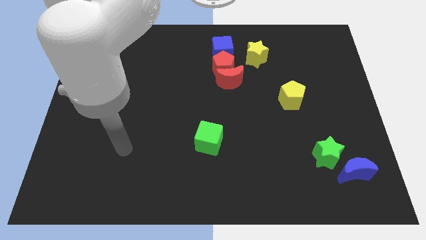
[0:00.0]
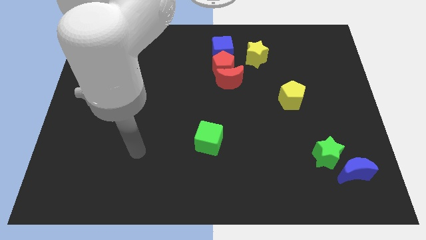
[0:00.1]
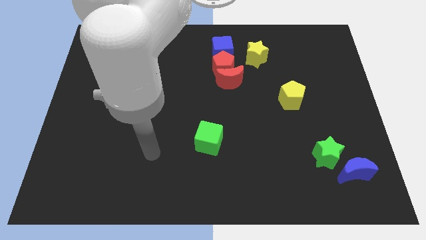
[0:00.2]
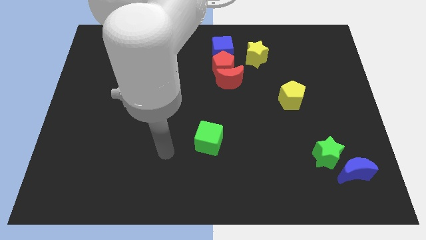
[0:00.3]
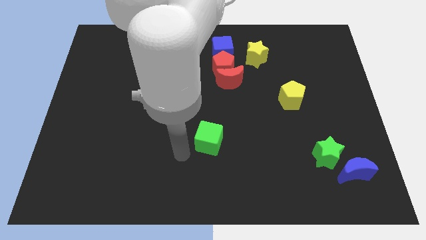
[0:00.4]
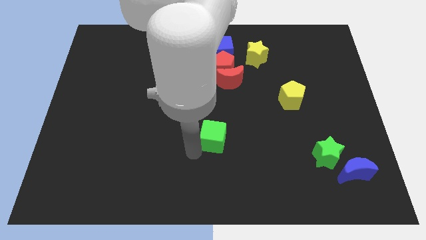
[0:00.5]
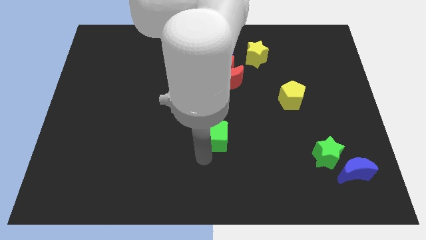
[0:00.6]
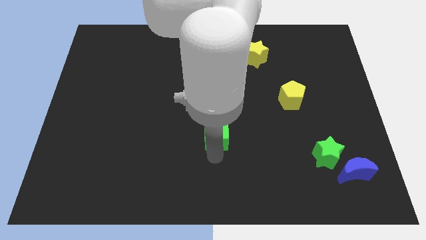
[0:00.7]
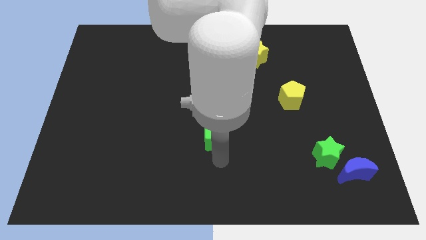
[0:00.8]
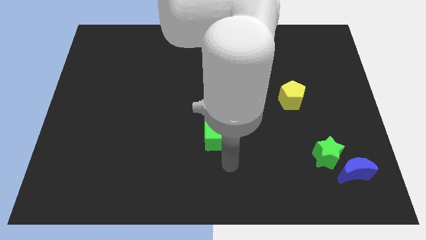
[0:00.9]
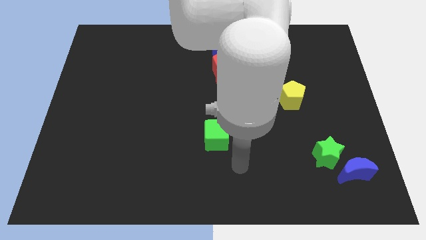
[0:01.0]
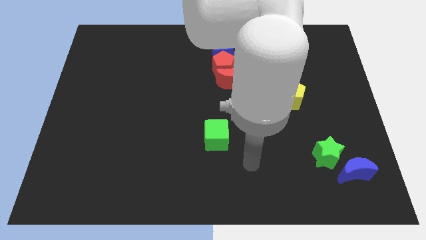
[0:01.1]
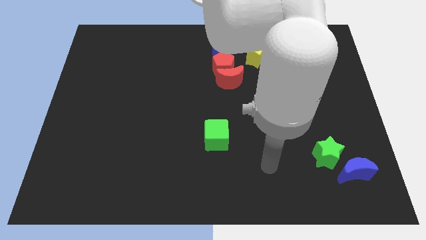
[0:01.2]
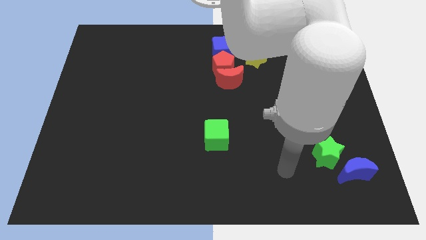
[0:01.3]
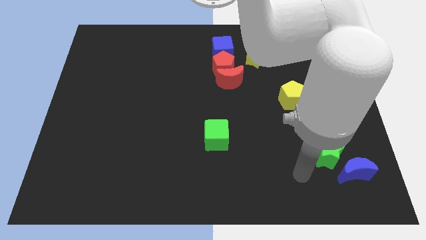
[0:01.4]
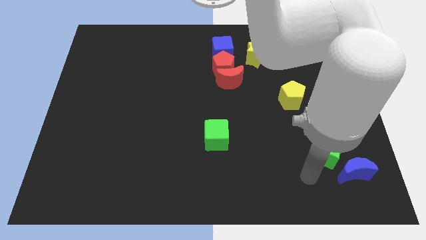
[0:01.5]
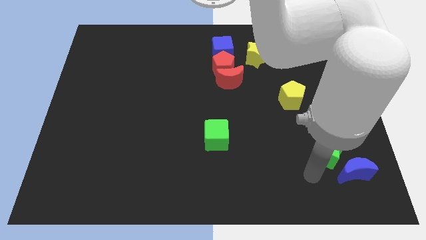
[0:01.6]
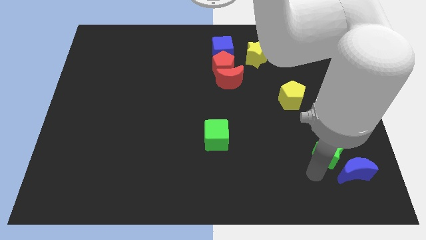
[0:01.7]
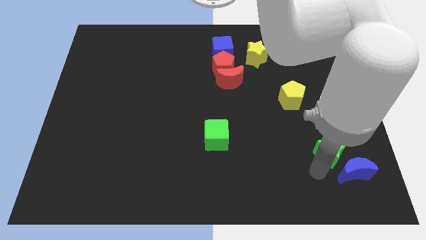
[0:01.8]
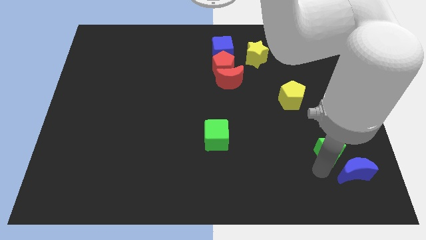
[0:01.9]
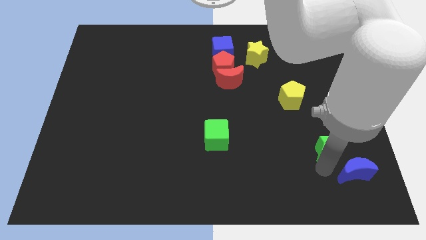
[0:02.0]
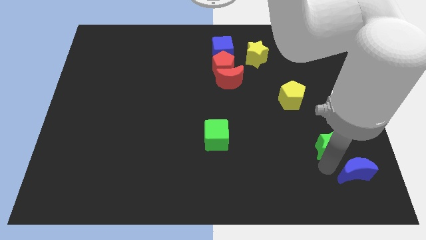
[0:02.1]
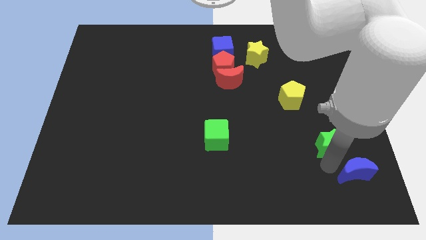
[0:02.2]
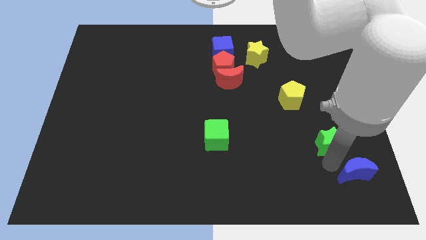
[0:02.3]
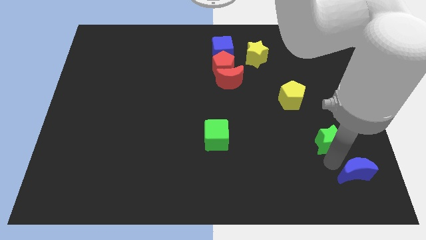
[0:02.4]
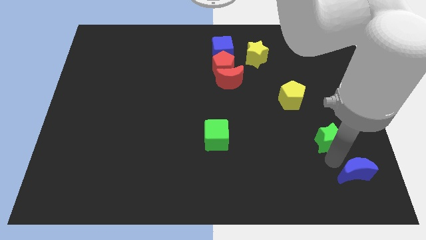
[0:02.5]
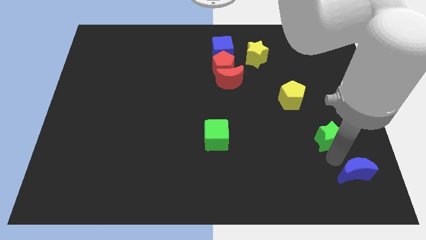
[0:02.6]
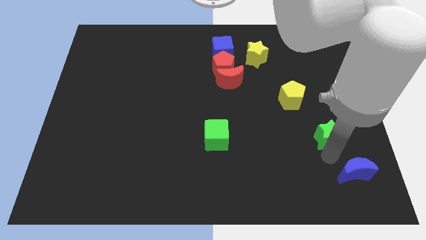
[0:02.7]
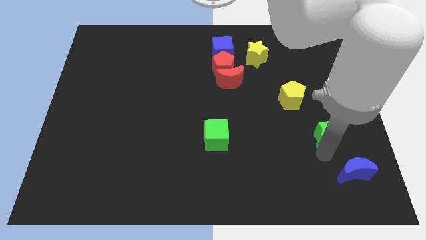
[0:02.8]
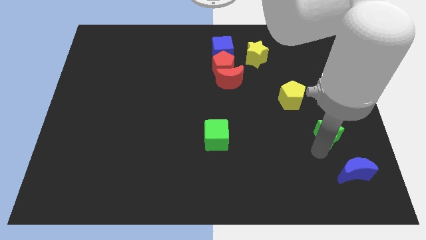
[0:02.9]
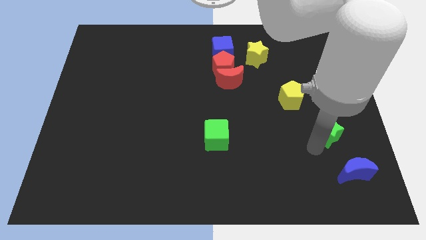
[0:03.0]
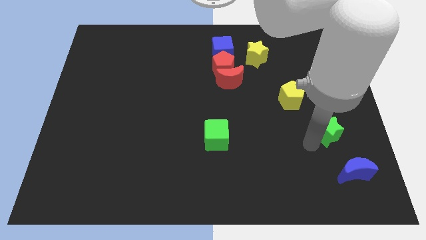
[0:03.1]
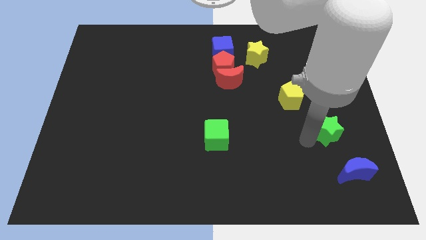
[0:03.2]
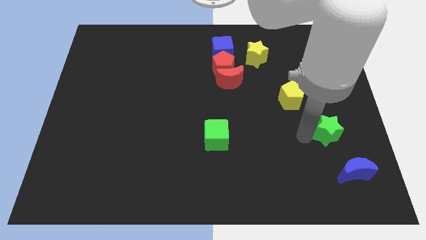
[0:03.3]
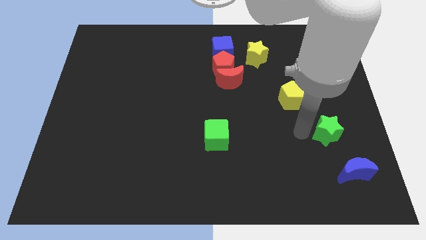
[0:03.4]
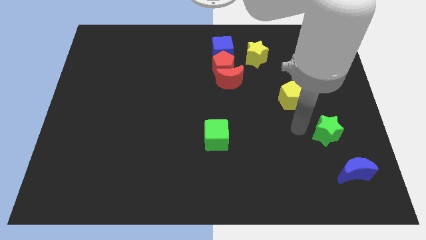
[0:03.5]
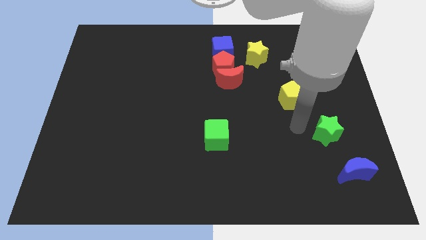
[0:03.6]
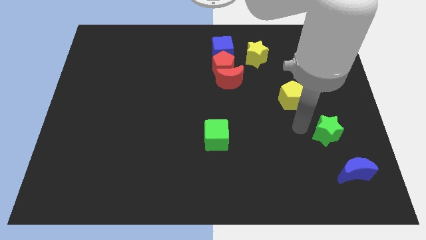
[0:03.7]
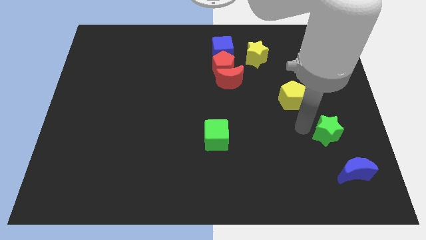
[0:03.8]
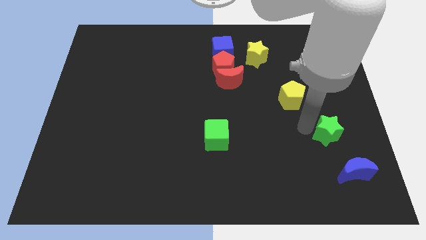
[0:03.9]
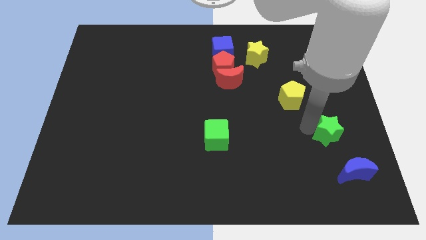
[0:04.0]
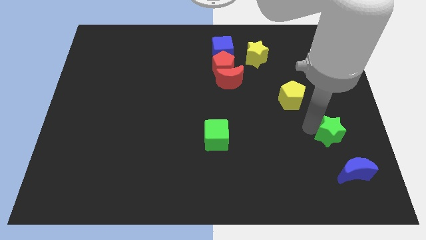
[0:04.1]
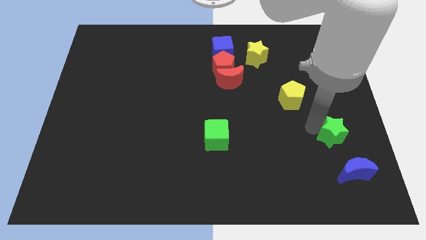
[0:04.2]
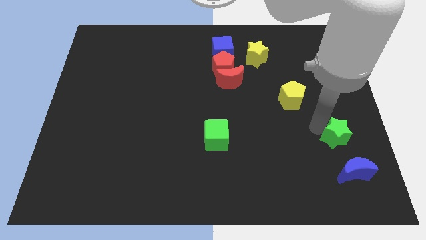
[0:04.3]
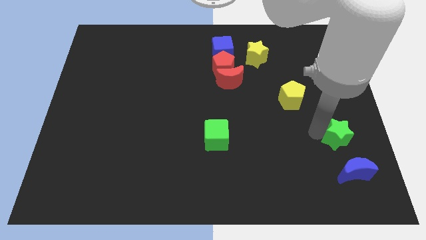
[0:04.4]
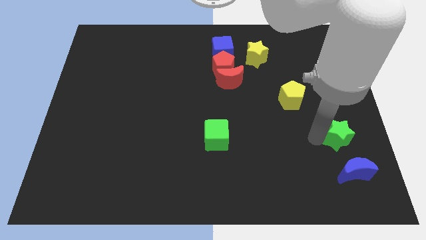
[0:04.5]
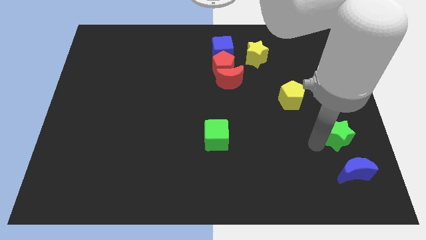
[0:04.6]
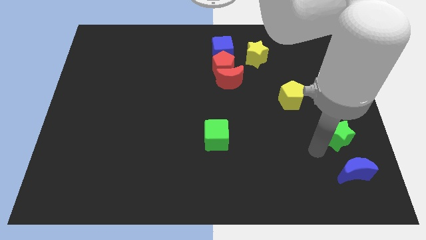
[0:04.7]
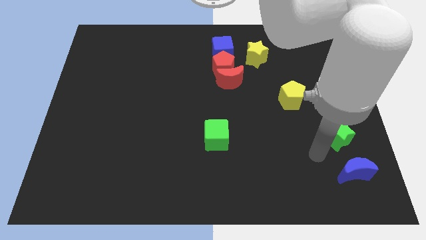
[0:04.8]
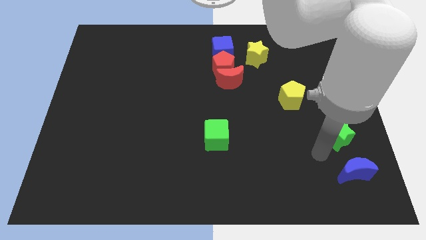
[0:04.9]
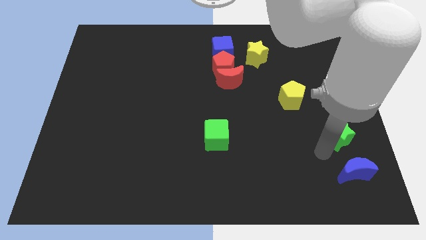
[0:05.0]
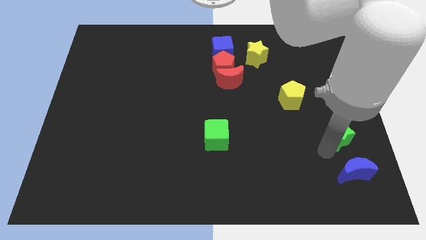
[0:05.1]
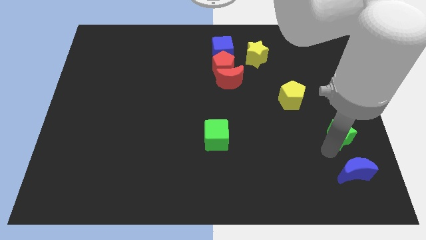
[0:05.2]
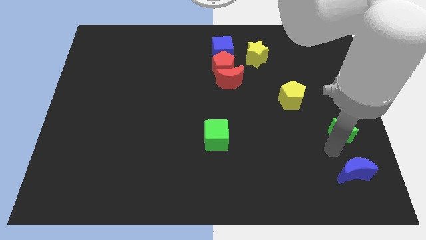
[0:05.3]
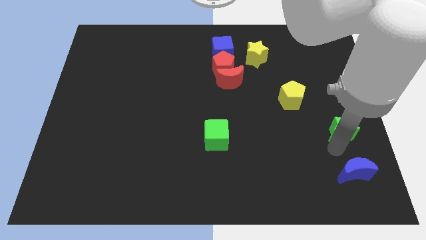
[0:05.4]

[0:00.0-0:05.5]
push the green star to the center right

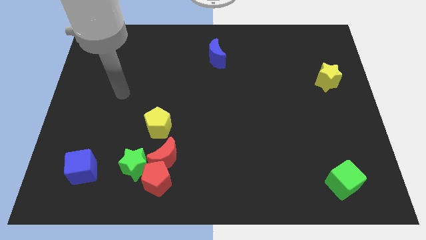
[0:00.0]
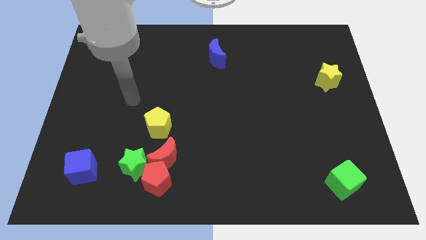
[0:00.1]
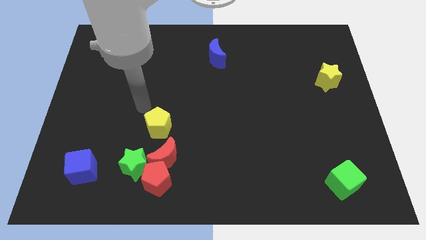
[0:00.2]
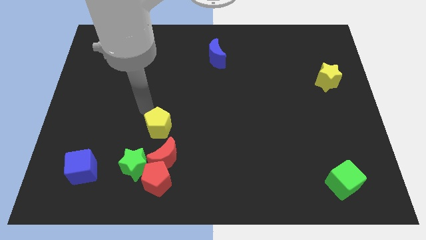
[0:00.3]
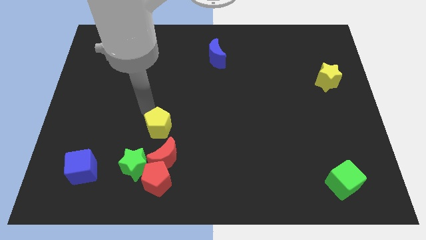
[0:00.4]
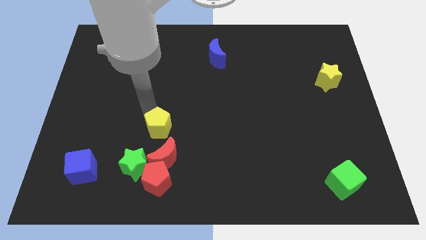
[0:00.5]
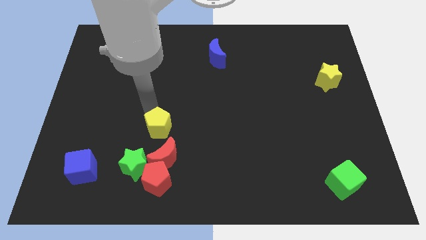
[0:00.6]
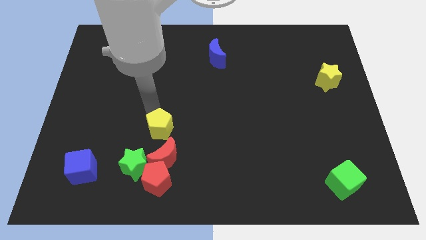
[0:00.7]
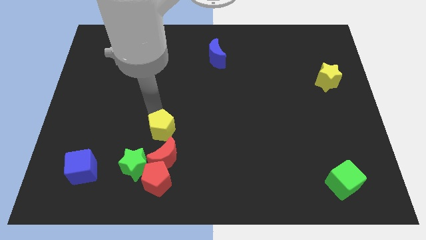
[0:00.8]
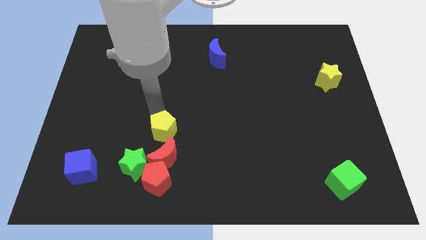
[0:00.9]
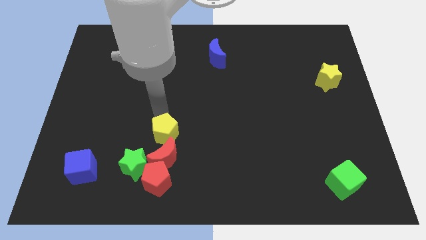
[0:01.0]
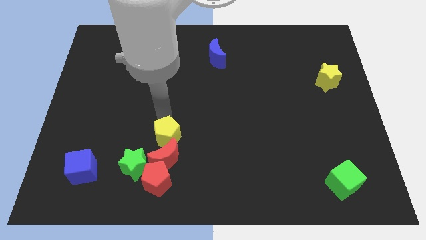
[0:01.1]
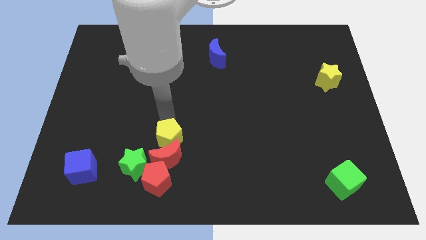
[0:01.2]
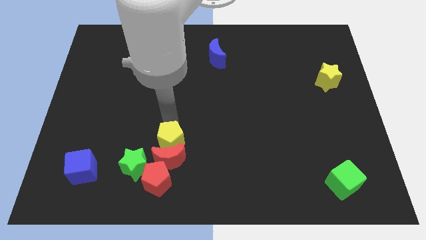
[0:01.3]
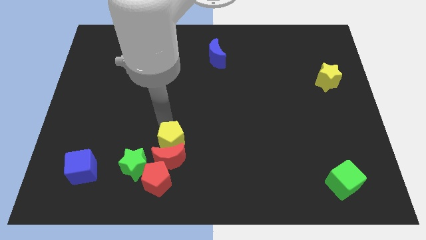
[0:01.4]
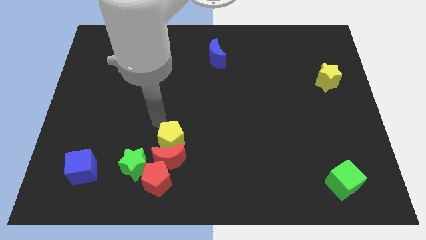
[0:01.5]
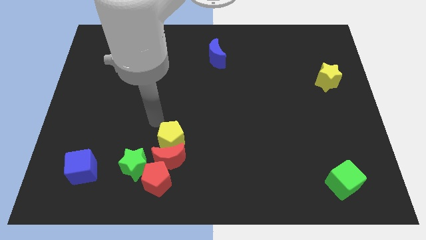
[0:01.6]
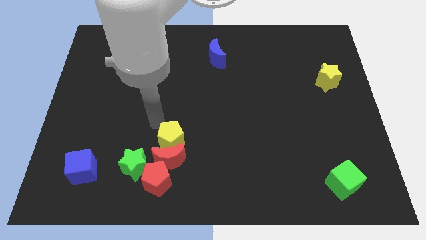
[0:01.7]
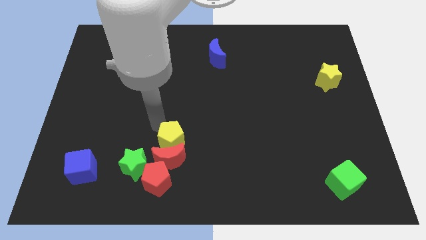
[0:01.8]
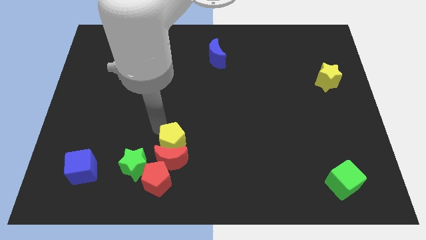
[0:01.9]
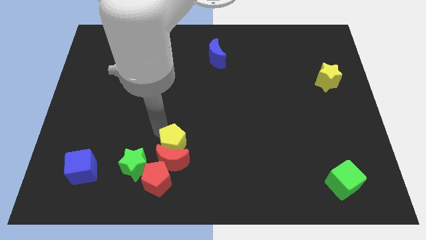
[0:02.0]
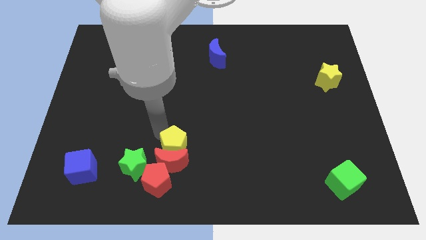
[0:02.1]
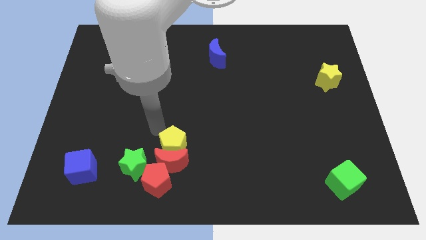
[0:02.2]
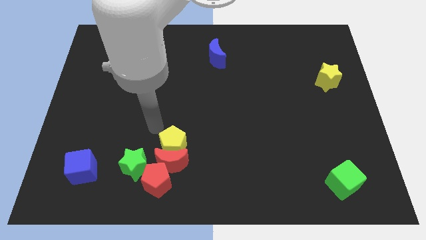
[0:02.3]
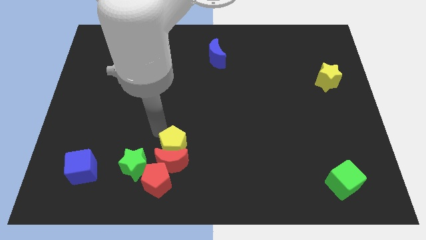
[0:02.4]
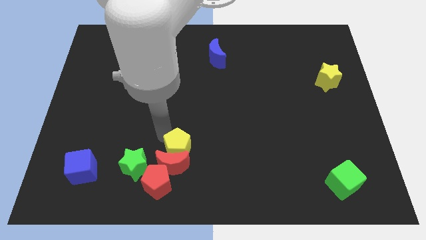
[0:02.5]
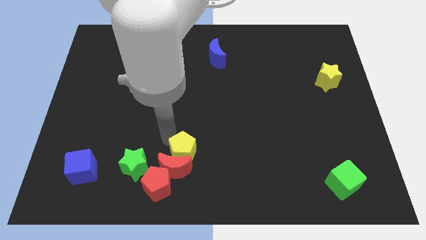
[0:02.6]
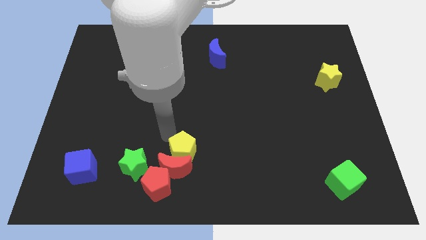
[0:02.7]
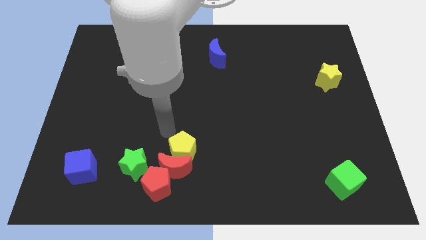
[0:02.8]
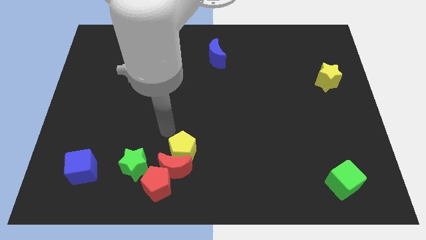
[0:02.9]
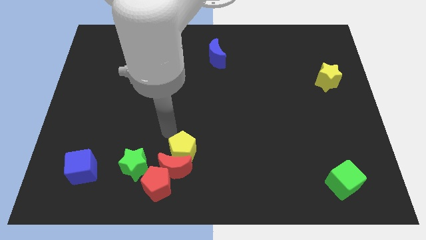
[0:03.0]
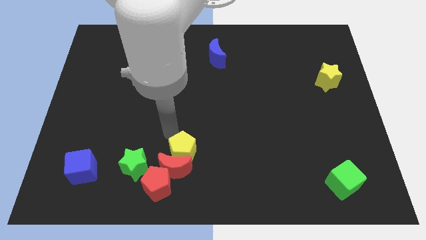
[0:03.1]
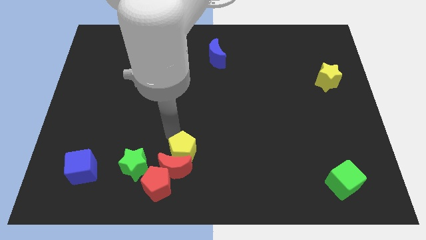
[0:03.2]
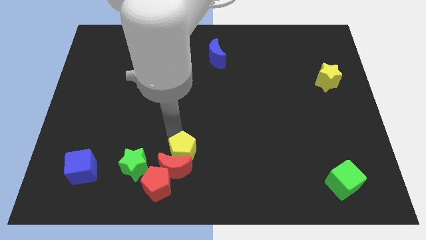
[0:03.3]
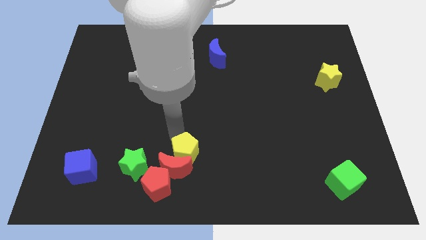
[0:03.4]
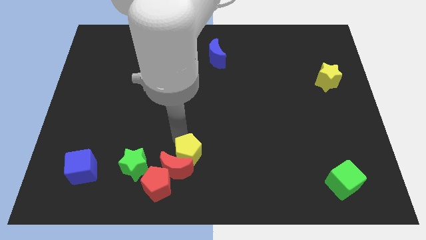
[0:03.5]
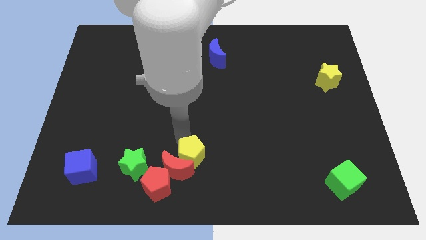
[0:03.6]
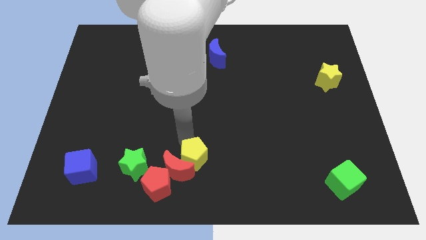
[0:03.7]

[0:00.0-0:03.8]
move the yellow pentagon to the bottom side
